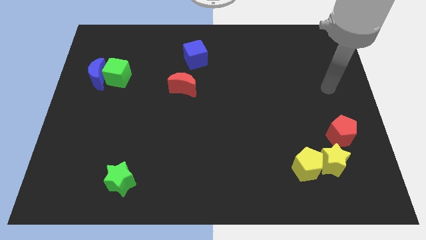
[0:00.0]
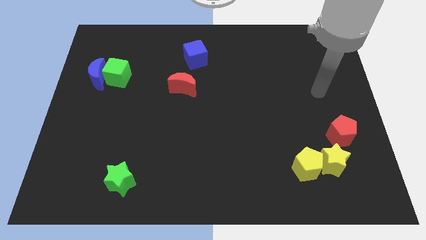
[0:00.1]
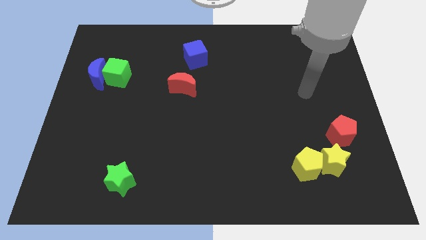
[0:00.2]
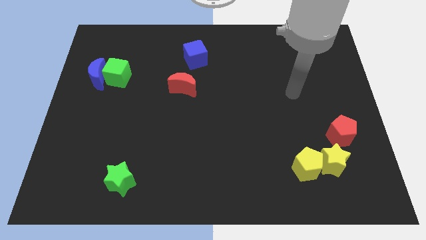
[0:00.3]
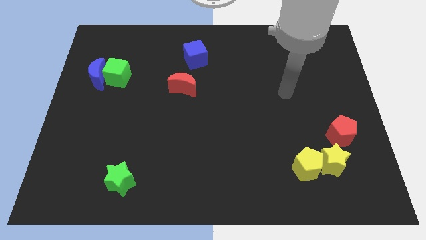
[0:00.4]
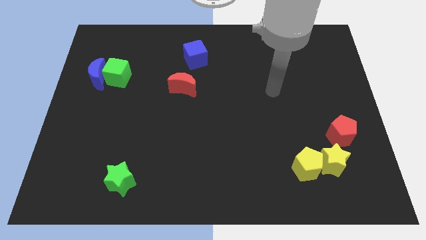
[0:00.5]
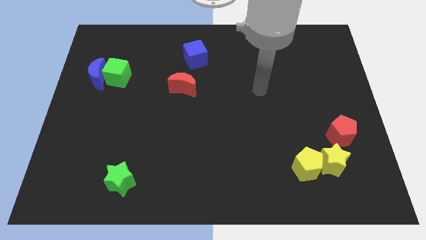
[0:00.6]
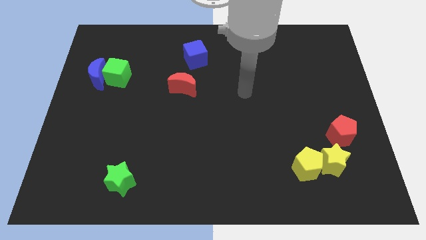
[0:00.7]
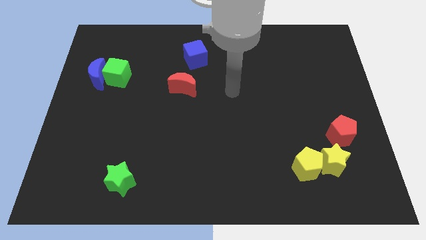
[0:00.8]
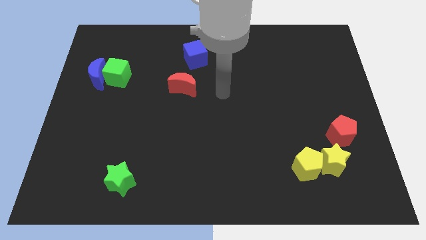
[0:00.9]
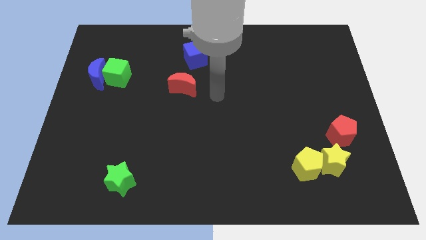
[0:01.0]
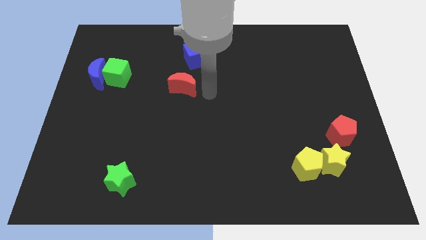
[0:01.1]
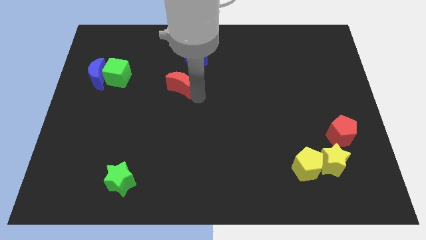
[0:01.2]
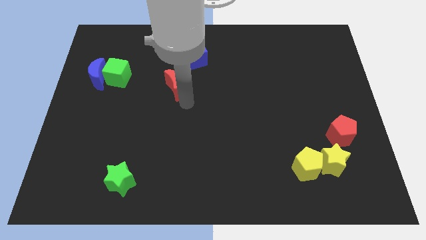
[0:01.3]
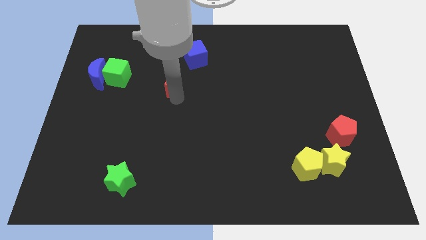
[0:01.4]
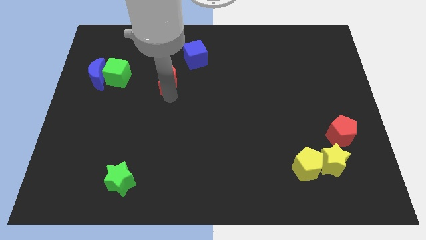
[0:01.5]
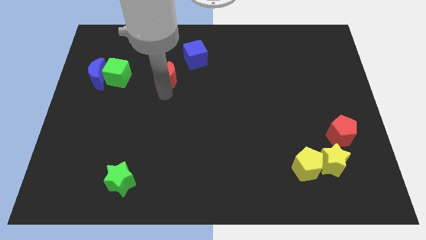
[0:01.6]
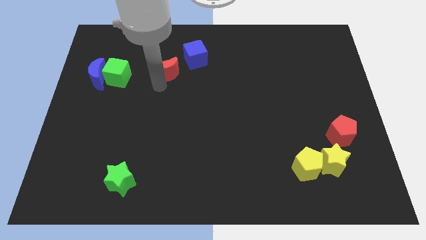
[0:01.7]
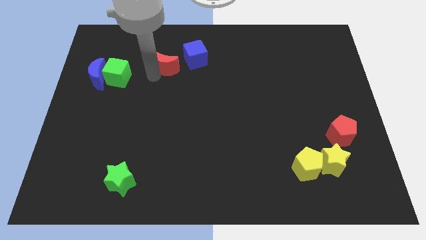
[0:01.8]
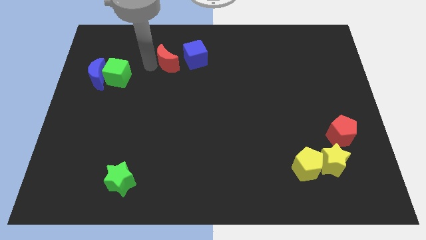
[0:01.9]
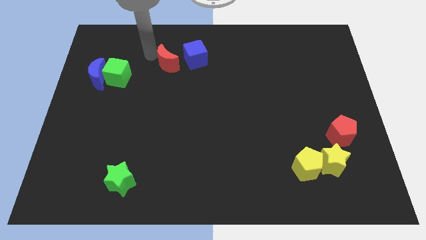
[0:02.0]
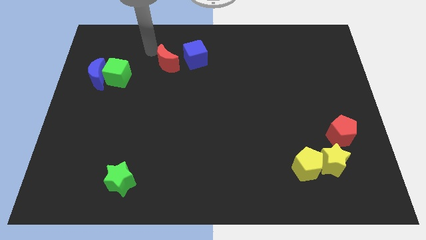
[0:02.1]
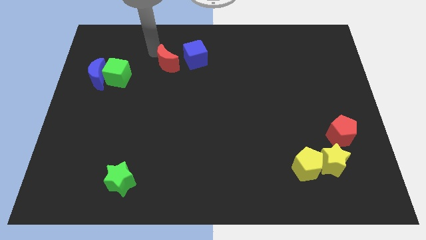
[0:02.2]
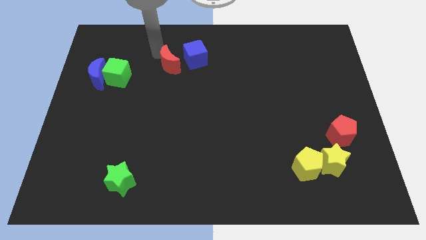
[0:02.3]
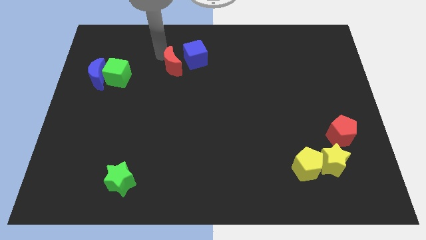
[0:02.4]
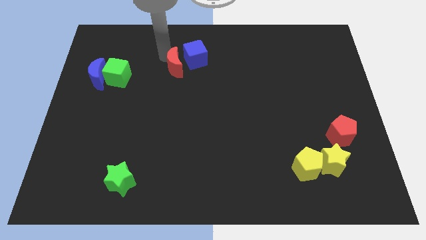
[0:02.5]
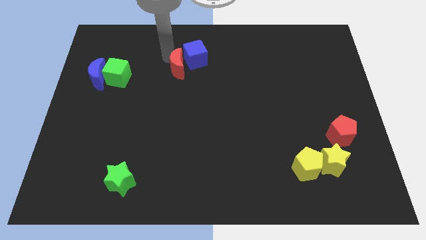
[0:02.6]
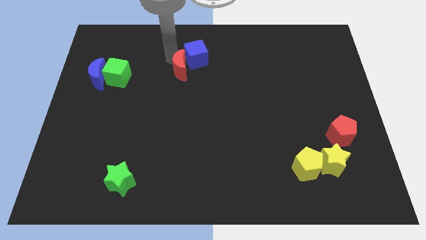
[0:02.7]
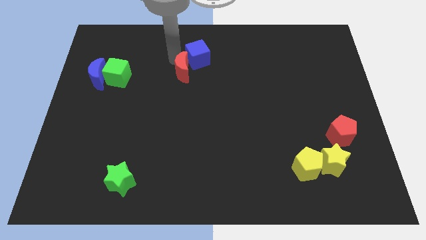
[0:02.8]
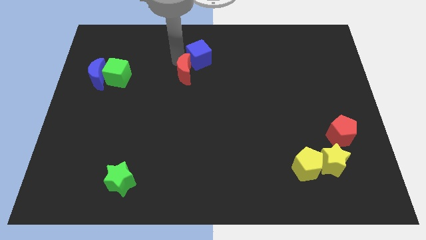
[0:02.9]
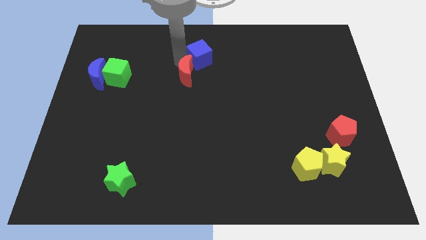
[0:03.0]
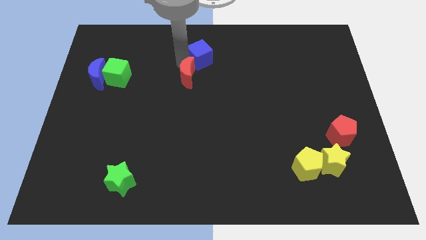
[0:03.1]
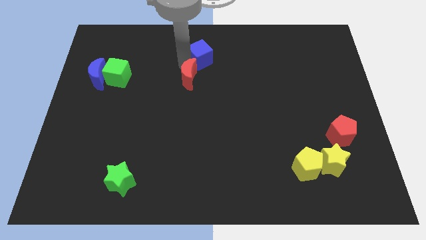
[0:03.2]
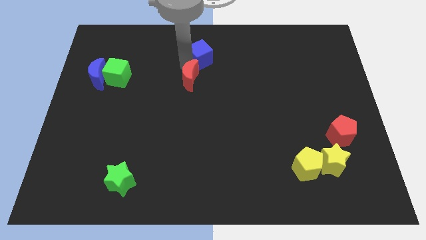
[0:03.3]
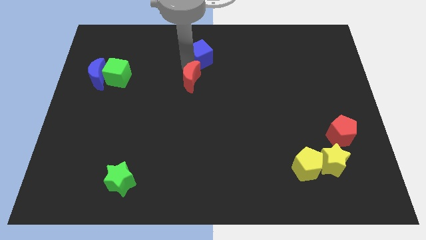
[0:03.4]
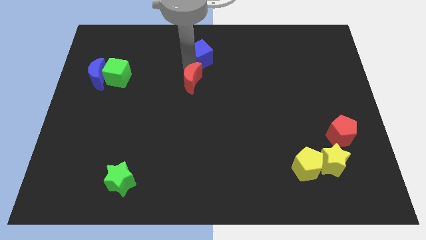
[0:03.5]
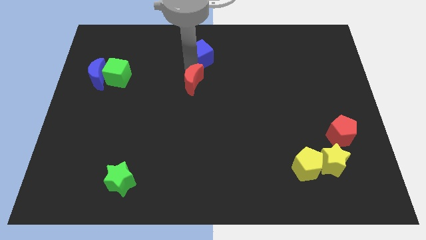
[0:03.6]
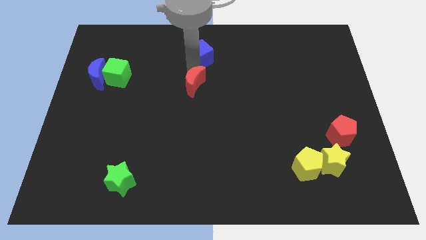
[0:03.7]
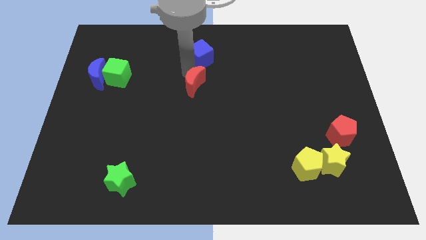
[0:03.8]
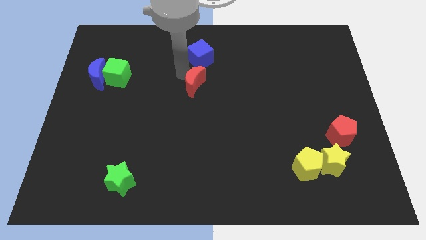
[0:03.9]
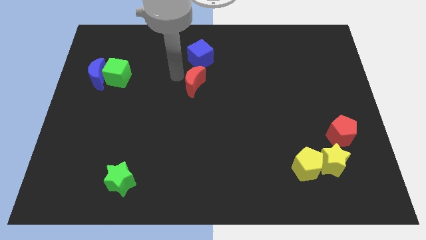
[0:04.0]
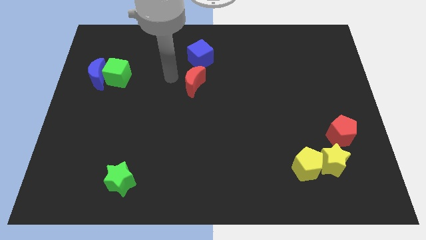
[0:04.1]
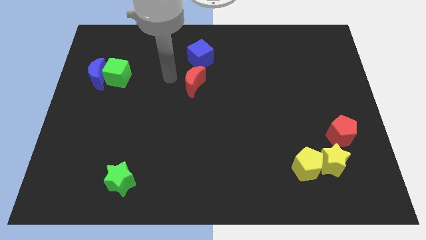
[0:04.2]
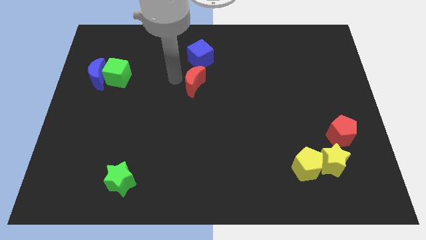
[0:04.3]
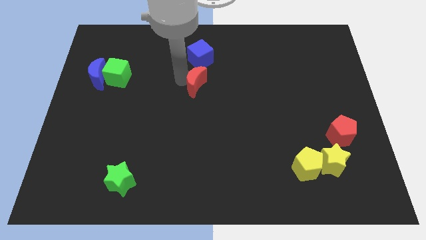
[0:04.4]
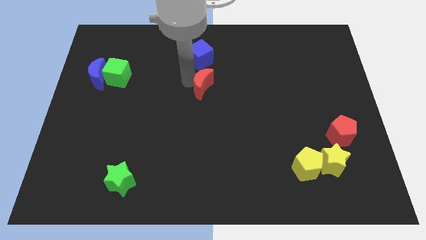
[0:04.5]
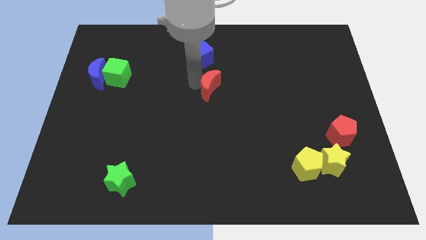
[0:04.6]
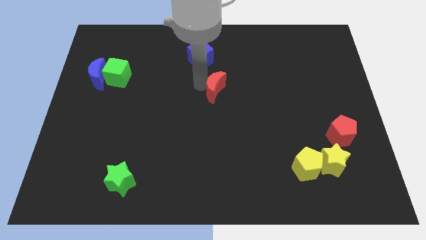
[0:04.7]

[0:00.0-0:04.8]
push the red moon right somewhat

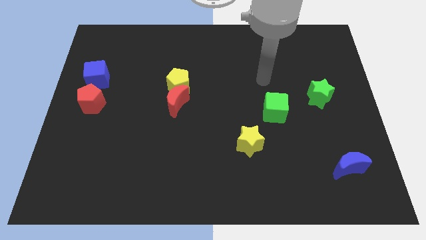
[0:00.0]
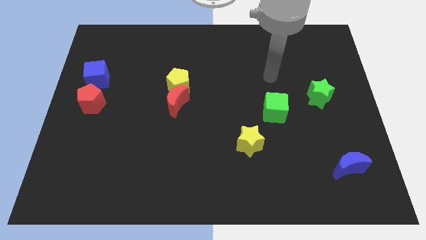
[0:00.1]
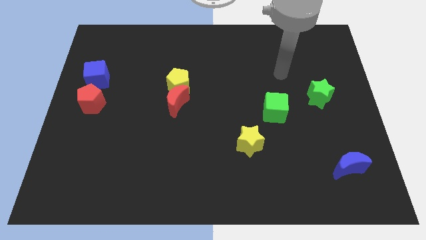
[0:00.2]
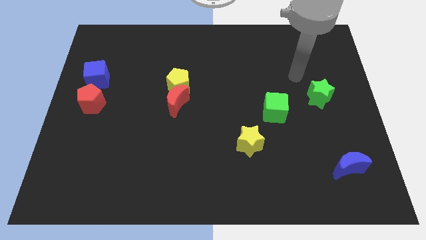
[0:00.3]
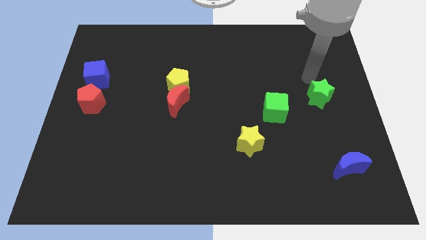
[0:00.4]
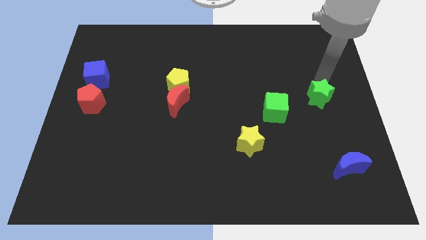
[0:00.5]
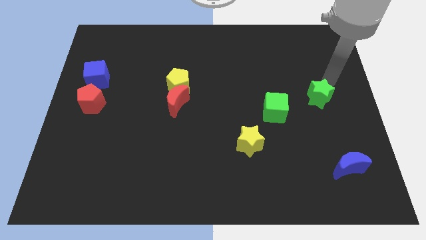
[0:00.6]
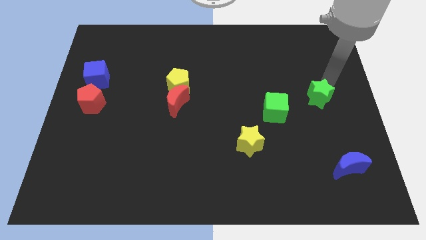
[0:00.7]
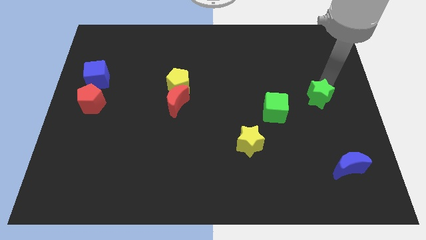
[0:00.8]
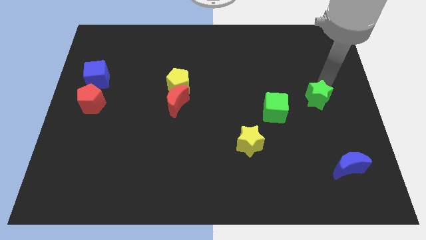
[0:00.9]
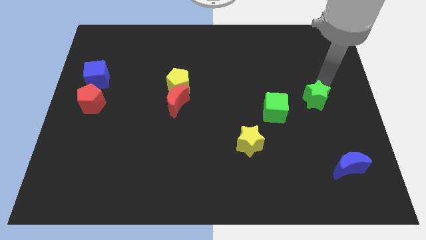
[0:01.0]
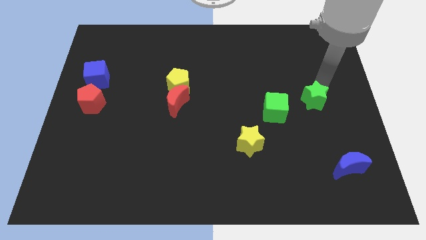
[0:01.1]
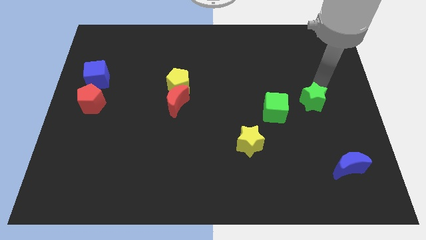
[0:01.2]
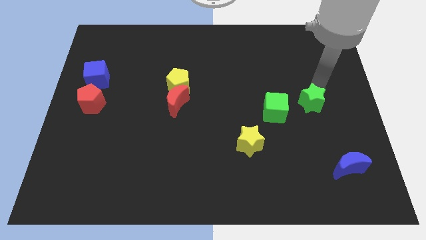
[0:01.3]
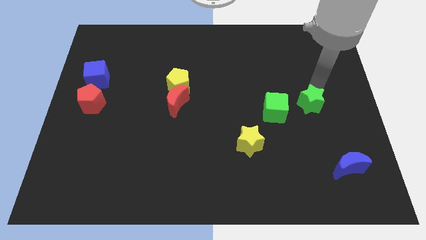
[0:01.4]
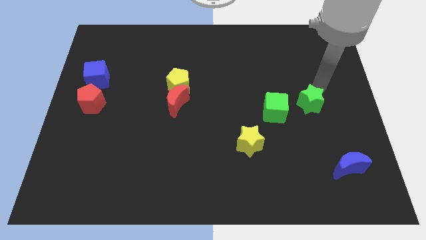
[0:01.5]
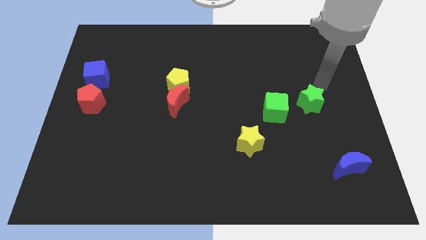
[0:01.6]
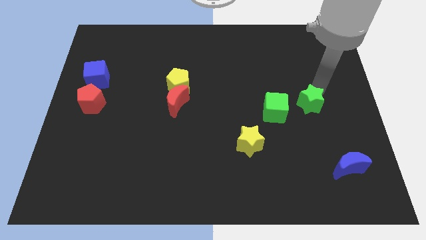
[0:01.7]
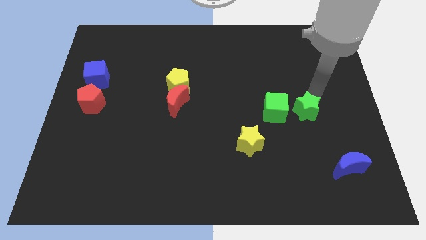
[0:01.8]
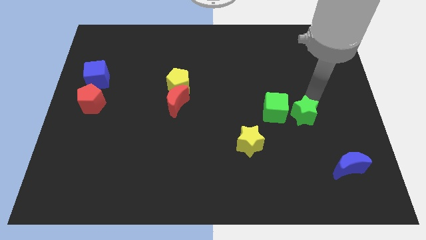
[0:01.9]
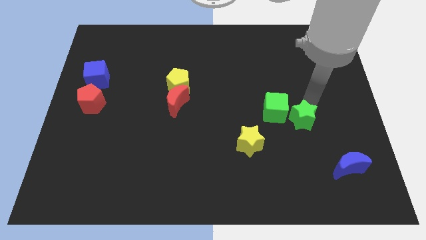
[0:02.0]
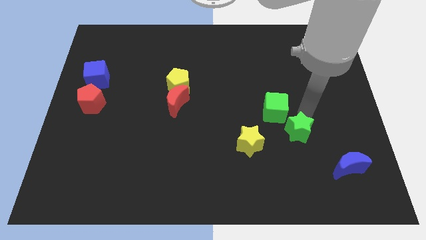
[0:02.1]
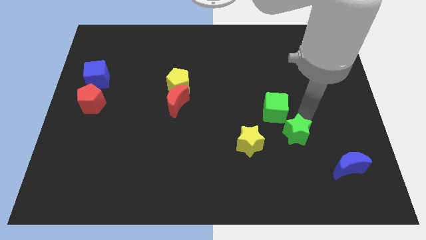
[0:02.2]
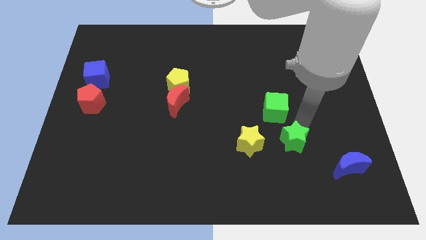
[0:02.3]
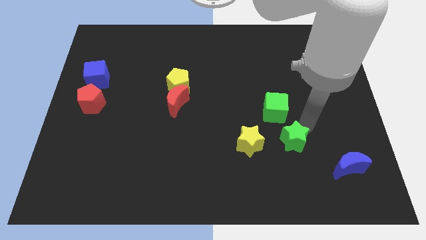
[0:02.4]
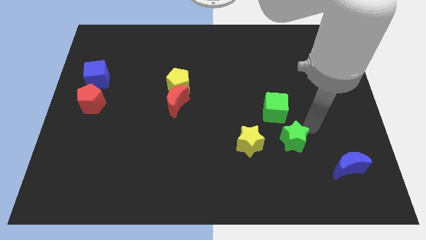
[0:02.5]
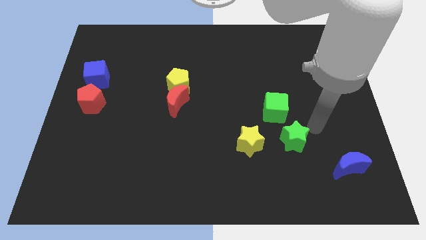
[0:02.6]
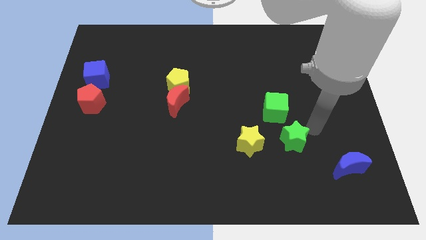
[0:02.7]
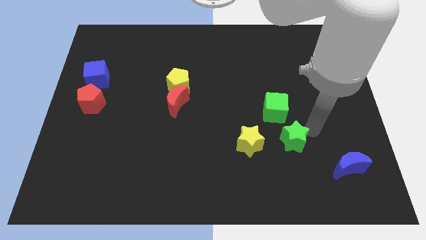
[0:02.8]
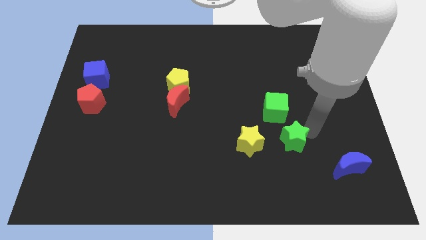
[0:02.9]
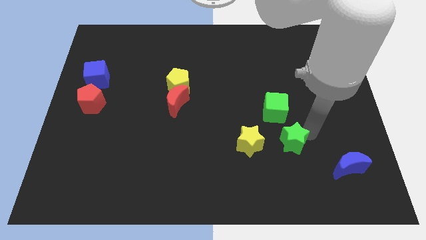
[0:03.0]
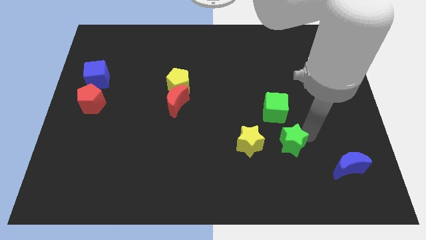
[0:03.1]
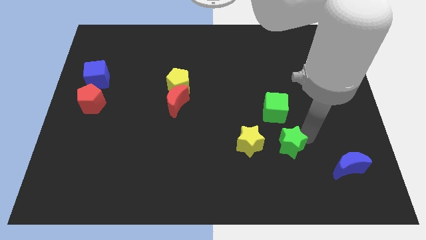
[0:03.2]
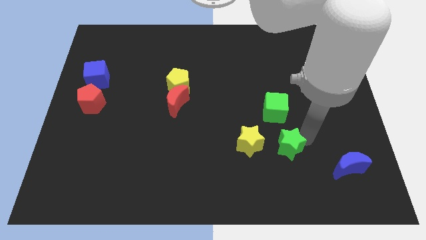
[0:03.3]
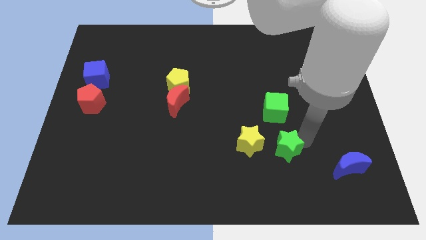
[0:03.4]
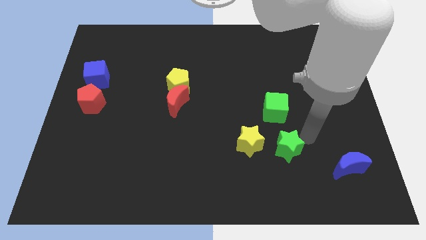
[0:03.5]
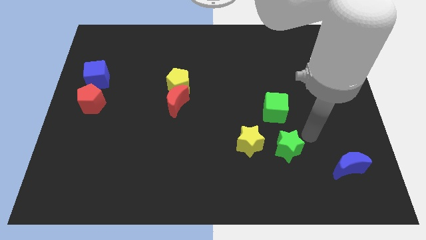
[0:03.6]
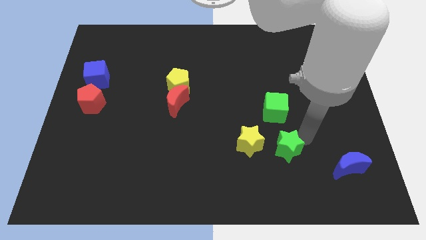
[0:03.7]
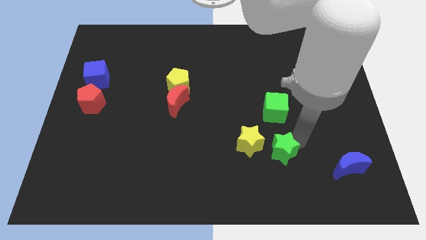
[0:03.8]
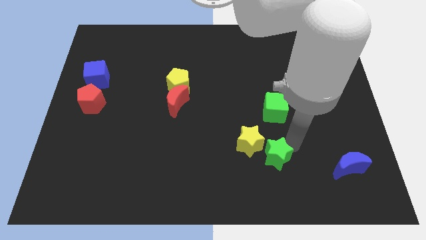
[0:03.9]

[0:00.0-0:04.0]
move the green star downwards and left diagonally
